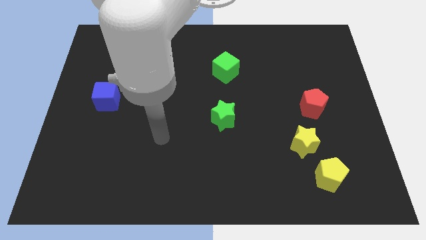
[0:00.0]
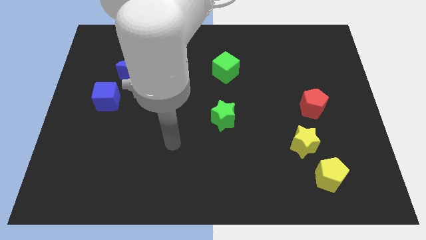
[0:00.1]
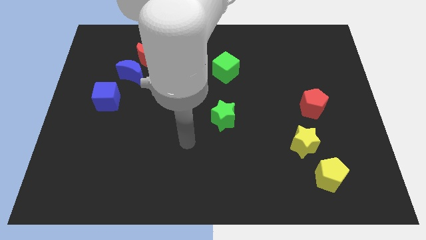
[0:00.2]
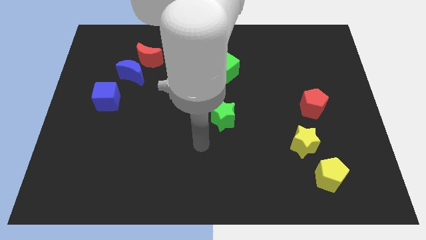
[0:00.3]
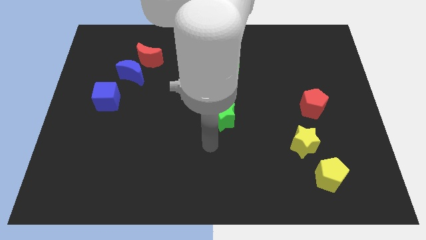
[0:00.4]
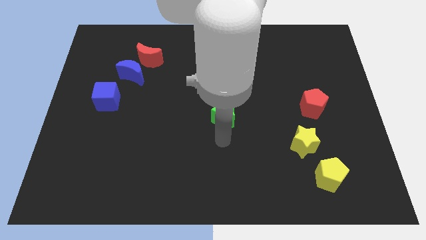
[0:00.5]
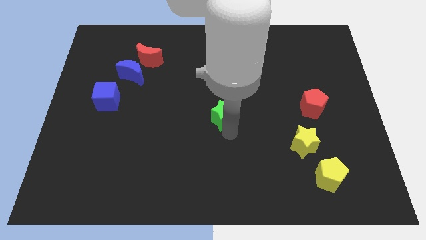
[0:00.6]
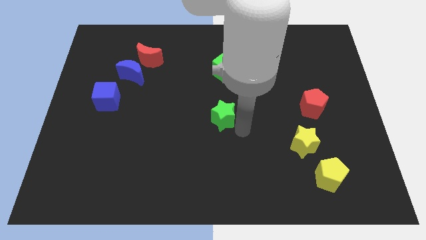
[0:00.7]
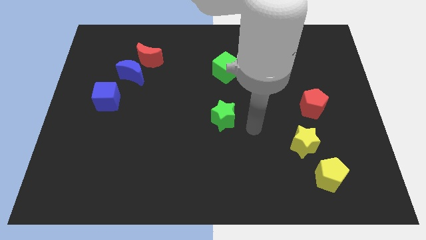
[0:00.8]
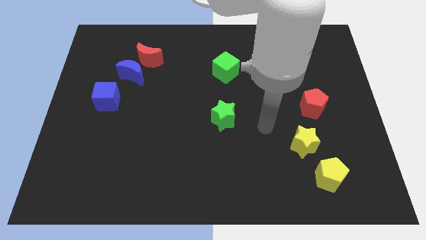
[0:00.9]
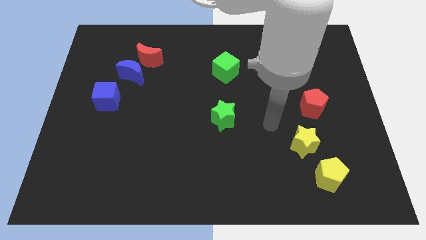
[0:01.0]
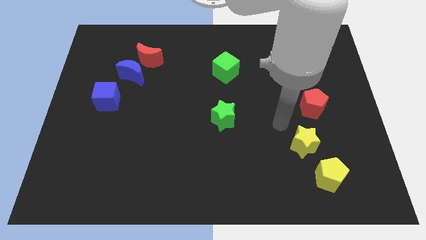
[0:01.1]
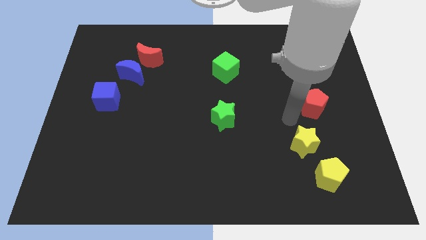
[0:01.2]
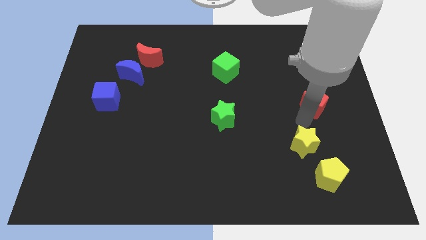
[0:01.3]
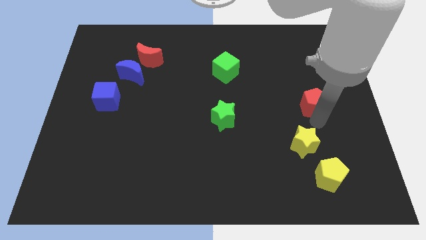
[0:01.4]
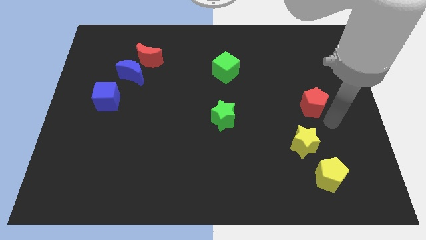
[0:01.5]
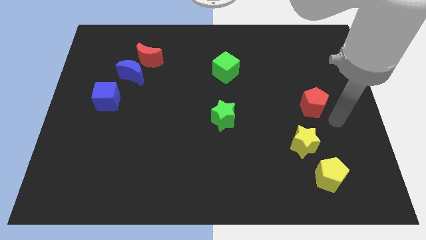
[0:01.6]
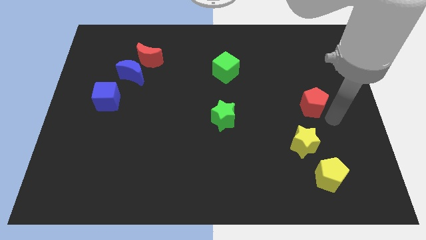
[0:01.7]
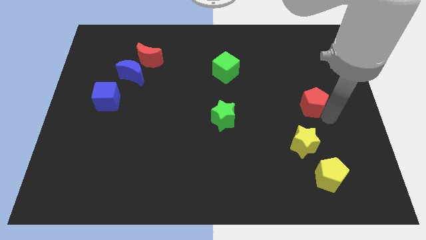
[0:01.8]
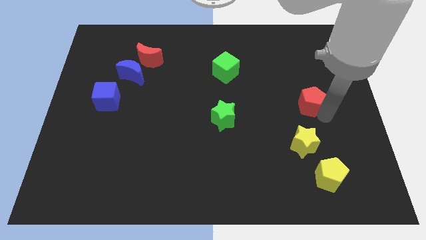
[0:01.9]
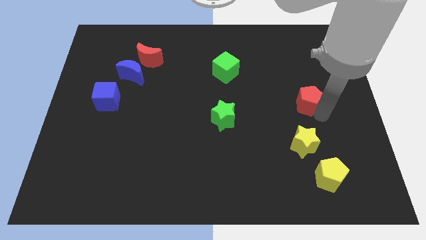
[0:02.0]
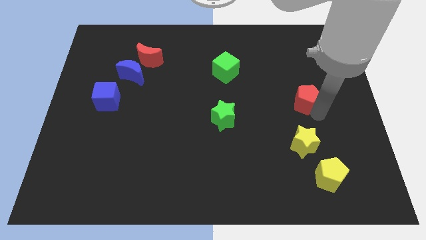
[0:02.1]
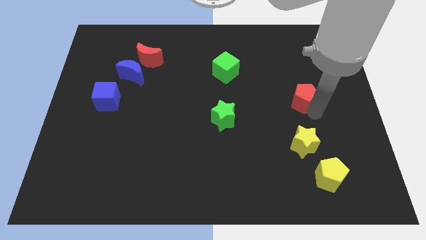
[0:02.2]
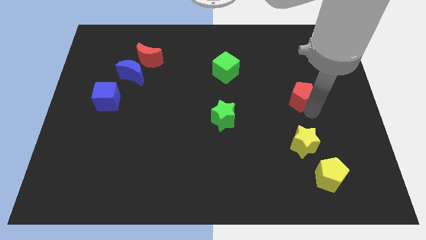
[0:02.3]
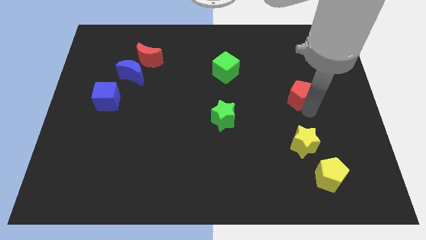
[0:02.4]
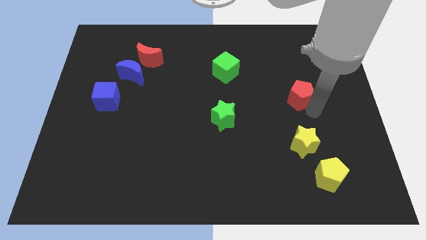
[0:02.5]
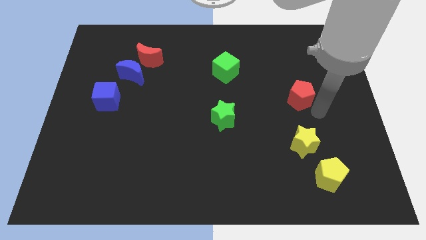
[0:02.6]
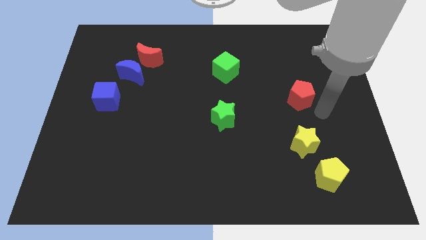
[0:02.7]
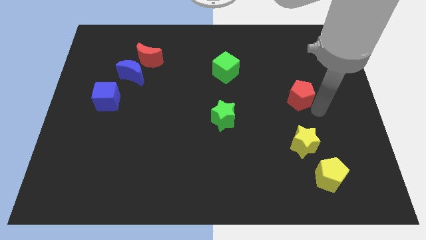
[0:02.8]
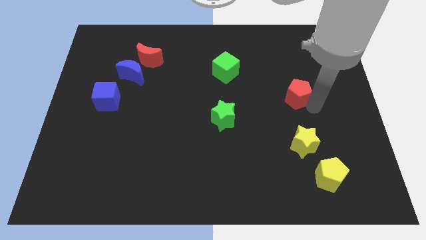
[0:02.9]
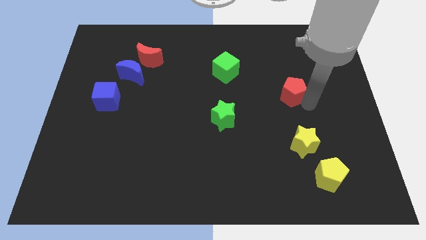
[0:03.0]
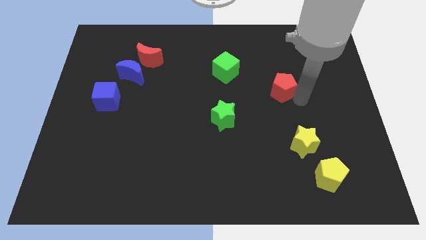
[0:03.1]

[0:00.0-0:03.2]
move the red pentagon a little bit upwards and left

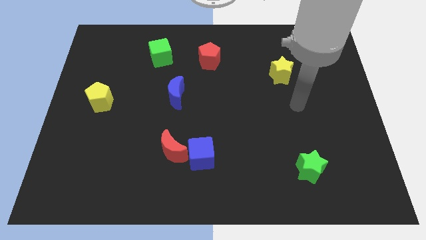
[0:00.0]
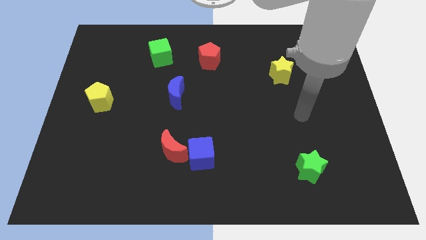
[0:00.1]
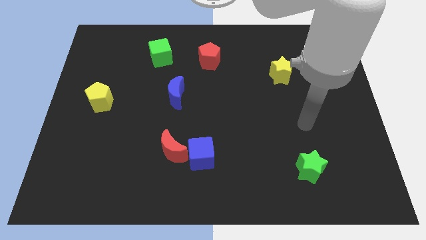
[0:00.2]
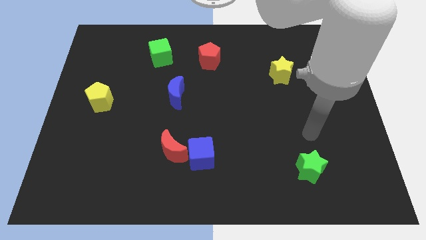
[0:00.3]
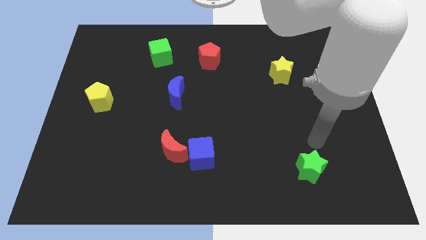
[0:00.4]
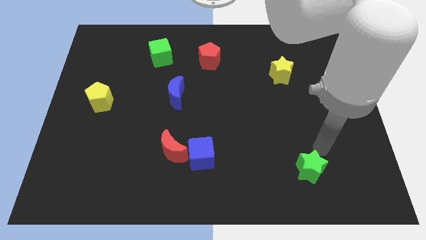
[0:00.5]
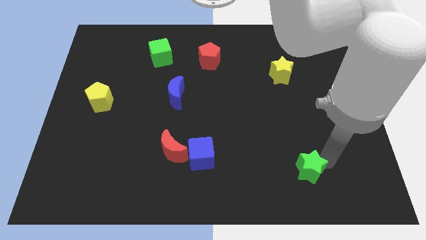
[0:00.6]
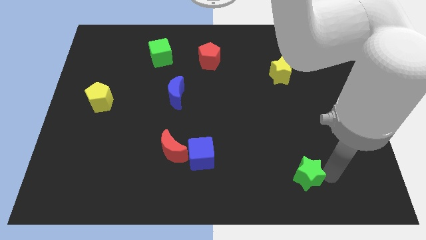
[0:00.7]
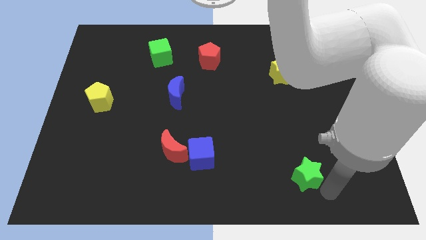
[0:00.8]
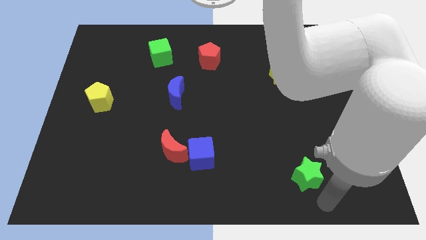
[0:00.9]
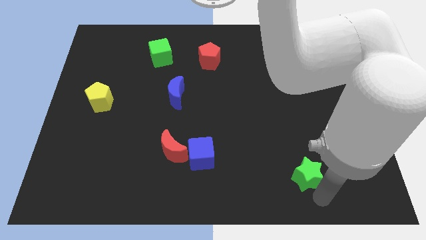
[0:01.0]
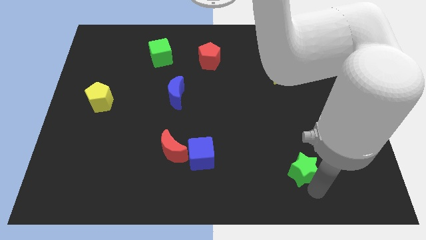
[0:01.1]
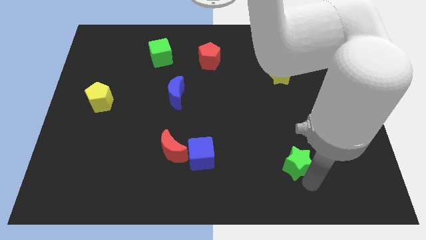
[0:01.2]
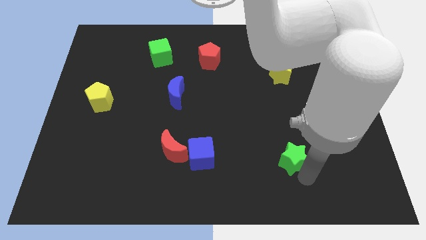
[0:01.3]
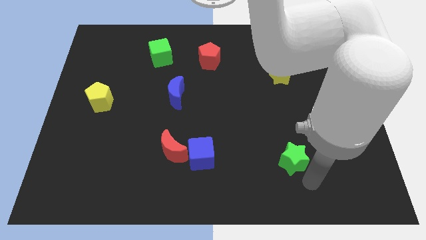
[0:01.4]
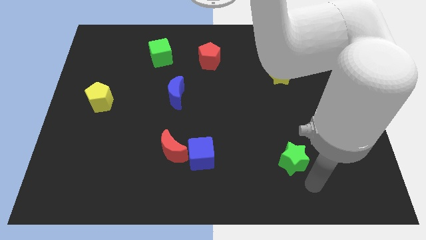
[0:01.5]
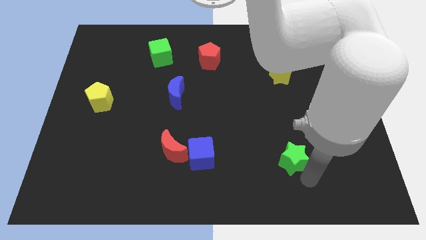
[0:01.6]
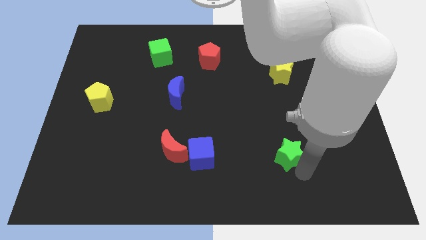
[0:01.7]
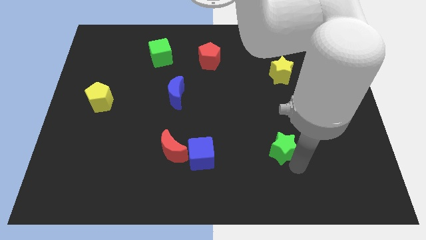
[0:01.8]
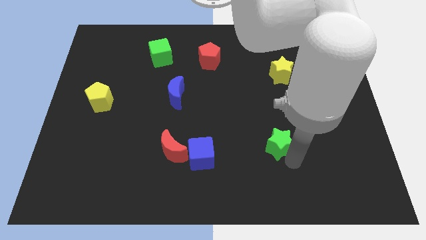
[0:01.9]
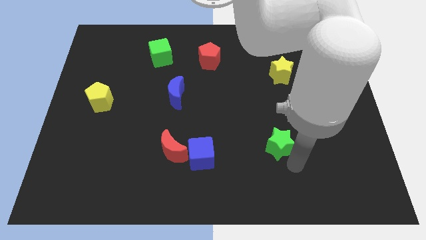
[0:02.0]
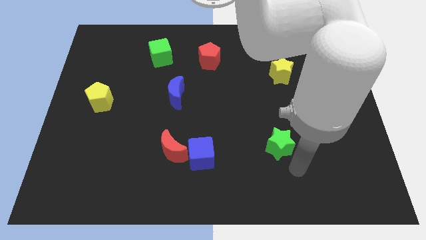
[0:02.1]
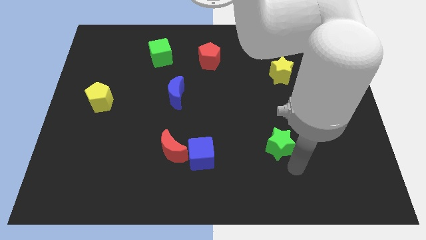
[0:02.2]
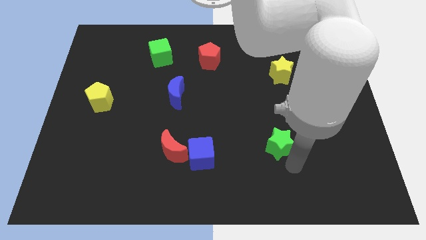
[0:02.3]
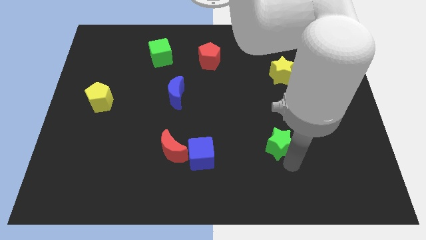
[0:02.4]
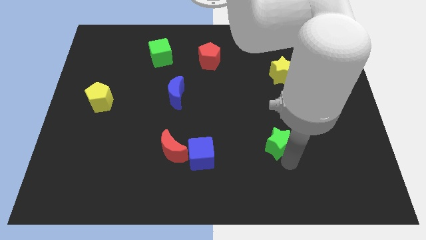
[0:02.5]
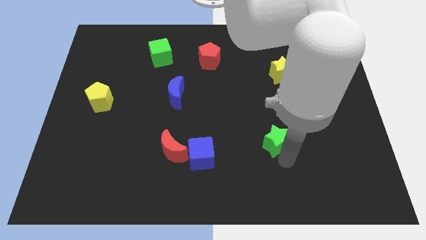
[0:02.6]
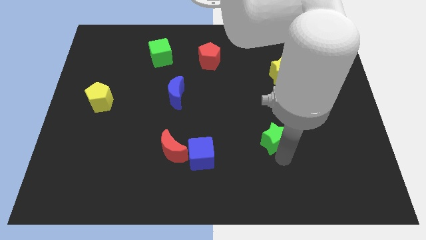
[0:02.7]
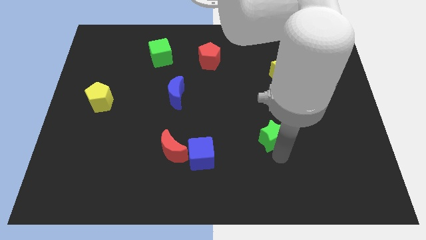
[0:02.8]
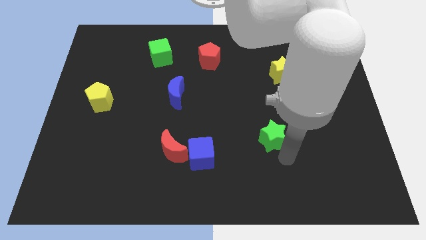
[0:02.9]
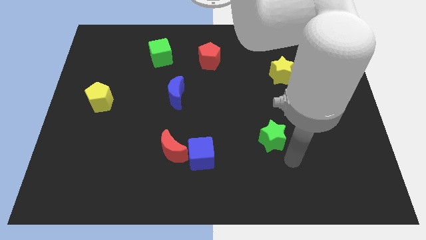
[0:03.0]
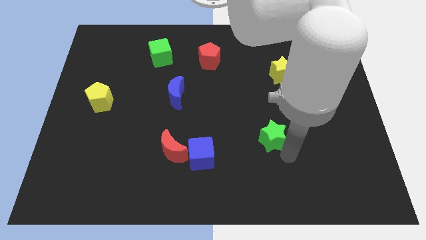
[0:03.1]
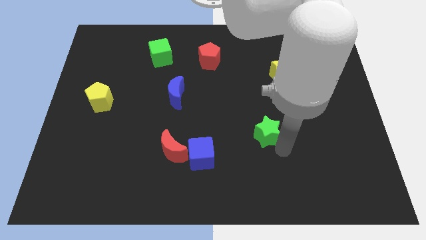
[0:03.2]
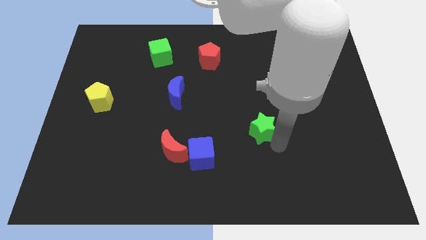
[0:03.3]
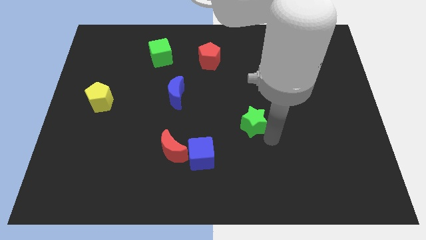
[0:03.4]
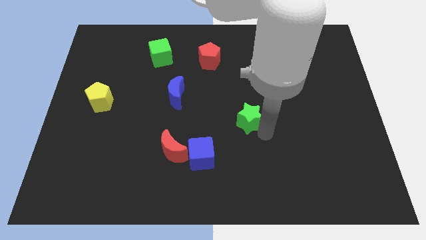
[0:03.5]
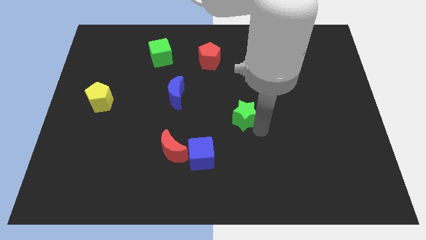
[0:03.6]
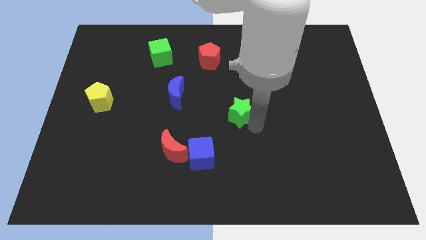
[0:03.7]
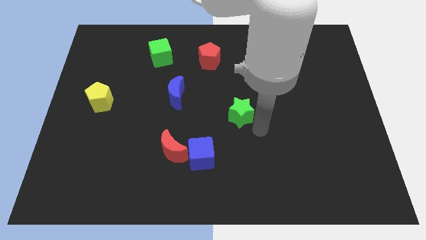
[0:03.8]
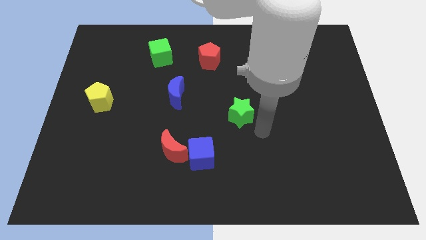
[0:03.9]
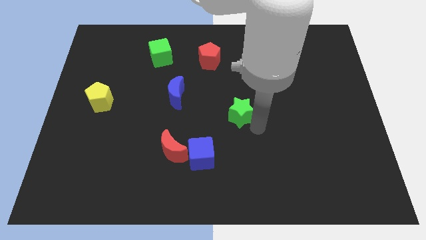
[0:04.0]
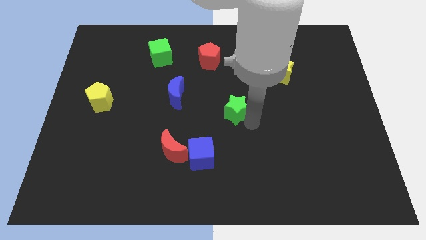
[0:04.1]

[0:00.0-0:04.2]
push the green star upwards and left

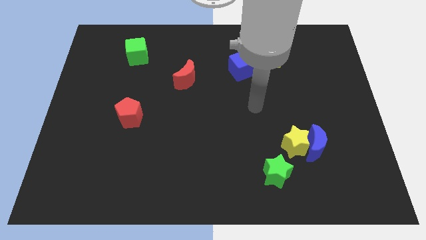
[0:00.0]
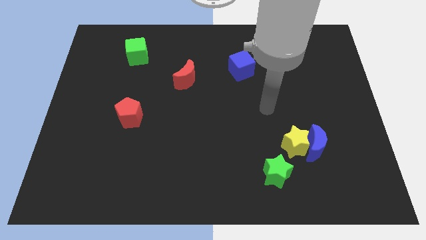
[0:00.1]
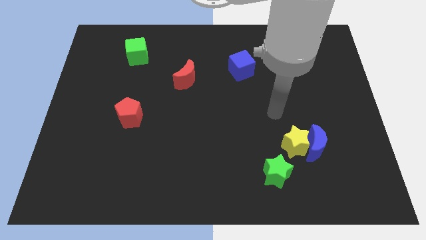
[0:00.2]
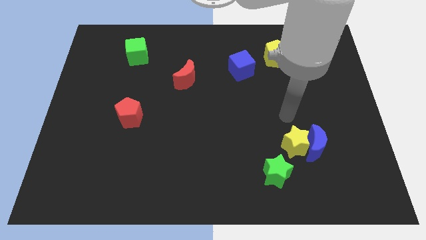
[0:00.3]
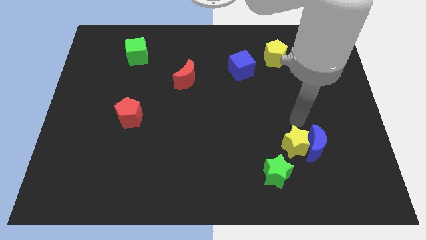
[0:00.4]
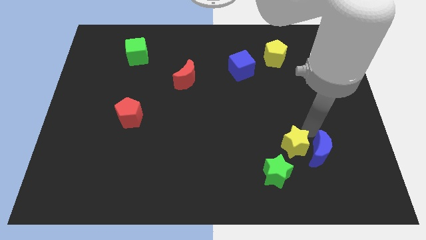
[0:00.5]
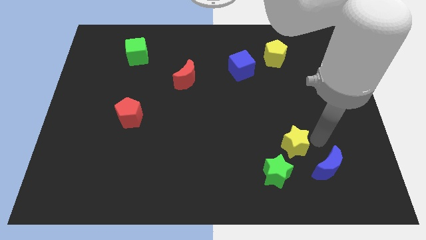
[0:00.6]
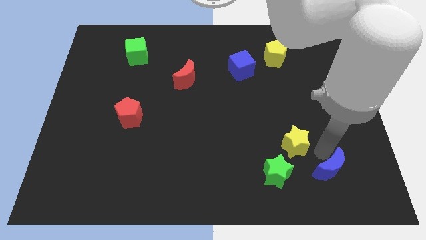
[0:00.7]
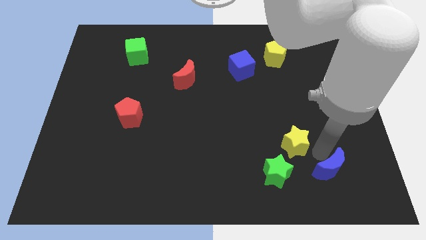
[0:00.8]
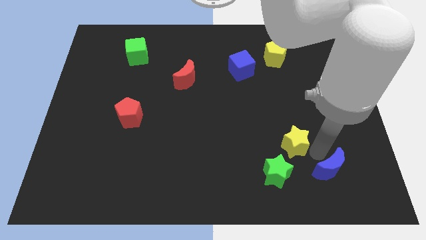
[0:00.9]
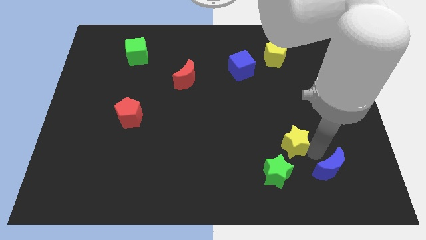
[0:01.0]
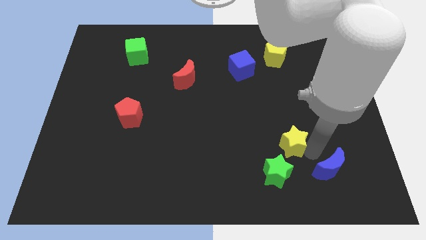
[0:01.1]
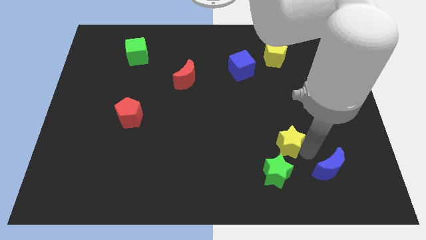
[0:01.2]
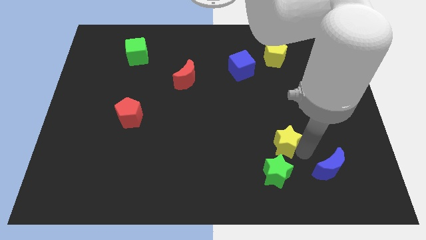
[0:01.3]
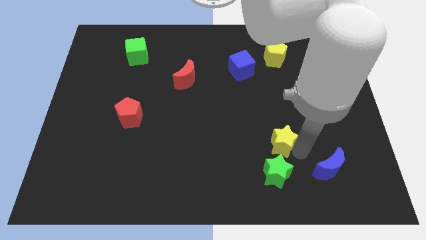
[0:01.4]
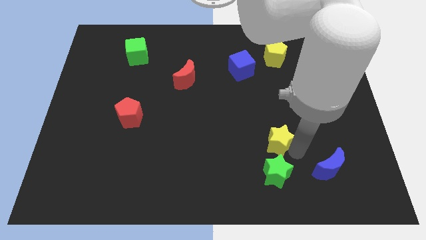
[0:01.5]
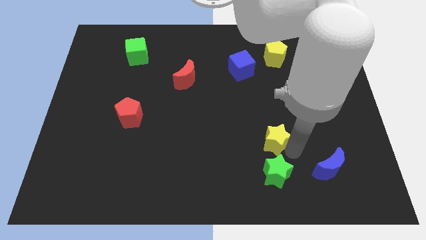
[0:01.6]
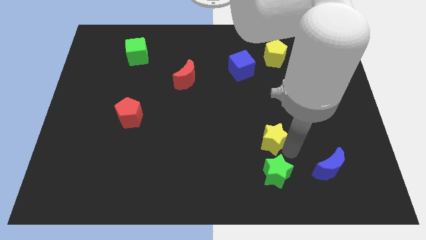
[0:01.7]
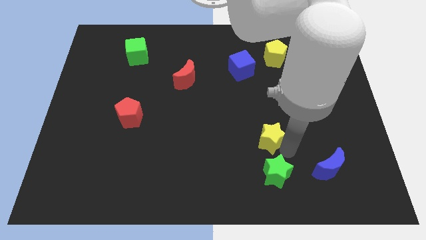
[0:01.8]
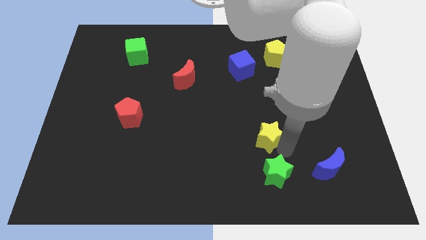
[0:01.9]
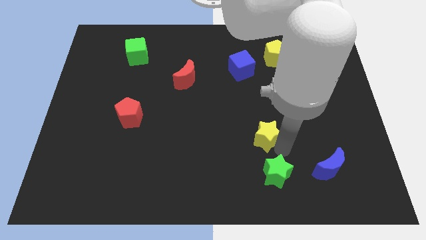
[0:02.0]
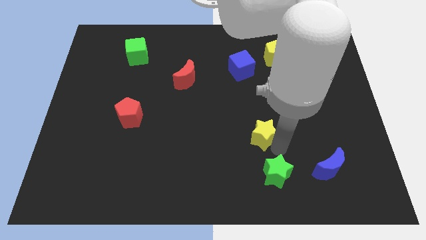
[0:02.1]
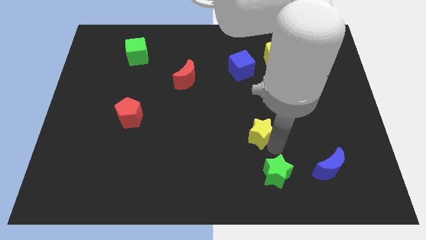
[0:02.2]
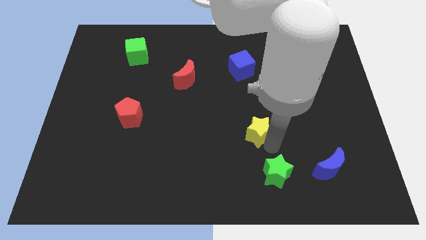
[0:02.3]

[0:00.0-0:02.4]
slide the yellow star somewhat up and left
